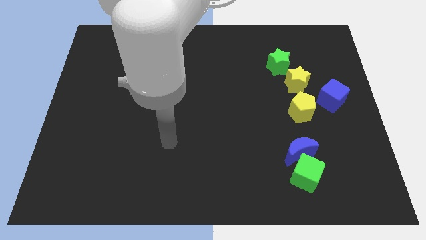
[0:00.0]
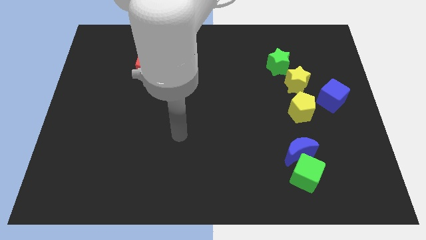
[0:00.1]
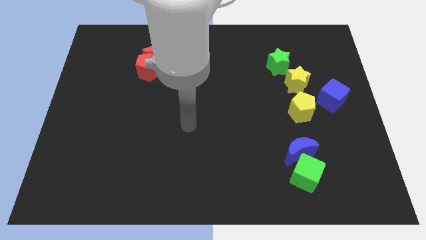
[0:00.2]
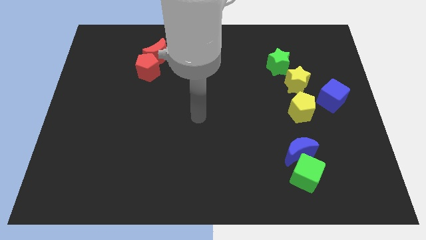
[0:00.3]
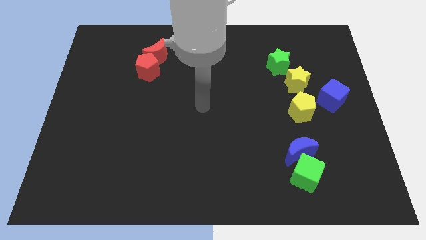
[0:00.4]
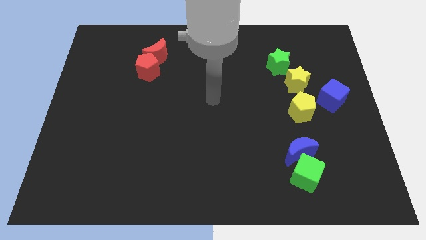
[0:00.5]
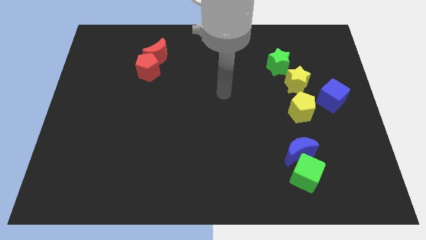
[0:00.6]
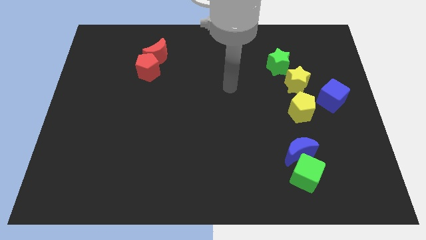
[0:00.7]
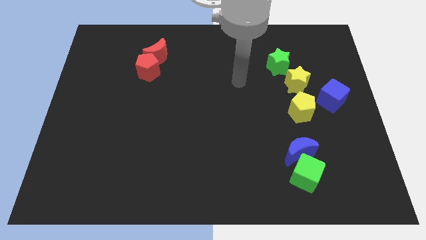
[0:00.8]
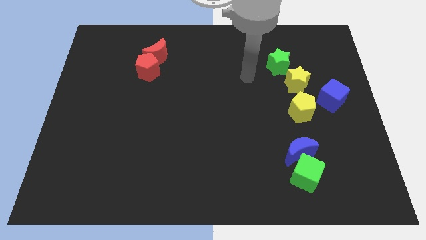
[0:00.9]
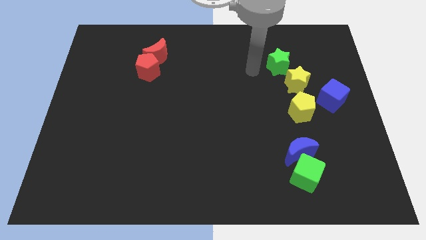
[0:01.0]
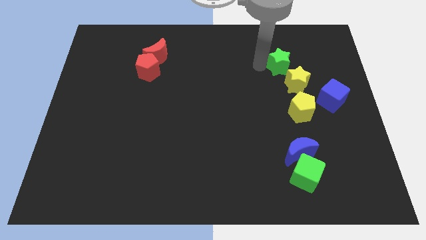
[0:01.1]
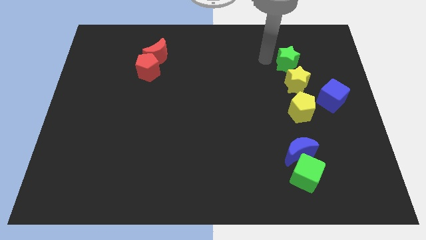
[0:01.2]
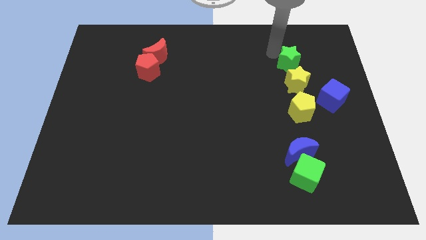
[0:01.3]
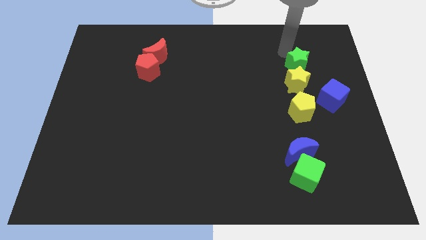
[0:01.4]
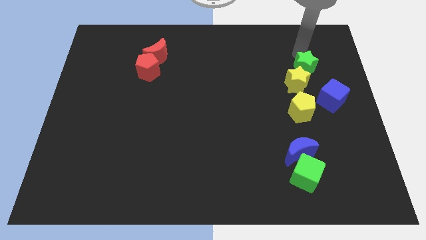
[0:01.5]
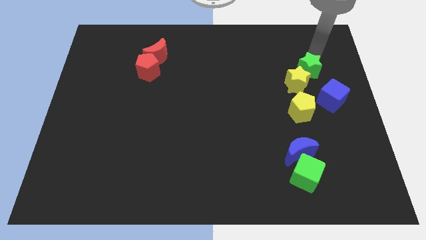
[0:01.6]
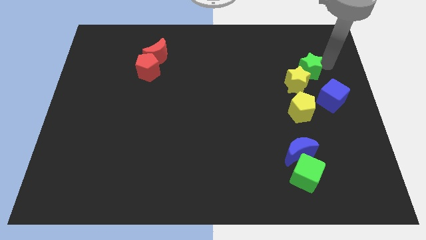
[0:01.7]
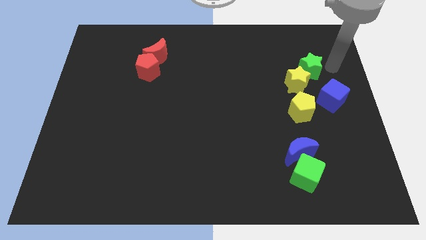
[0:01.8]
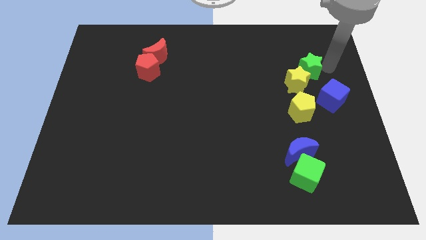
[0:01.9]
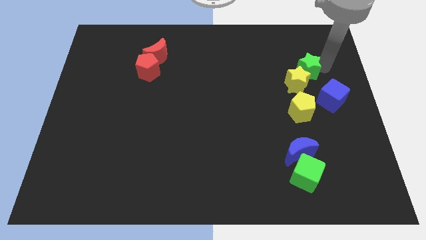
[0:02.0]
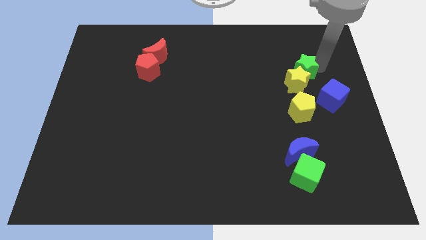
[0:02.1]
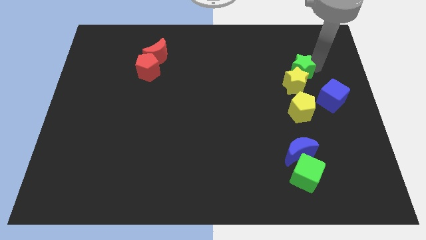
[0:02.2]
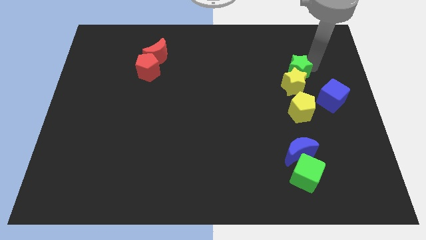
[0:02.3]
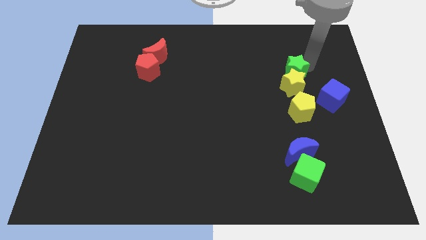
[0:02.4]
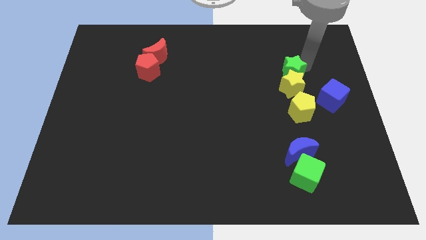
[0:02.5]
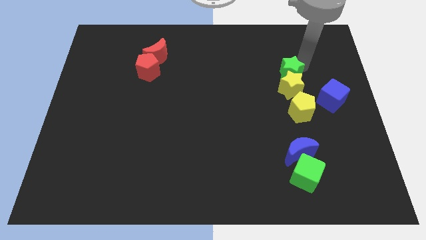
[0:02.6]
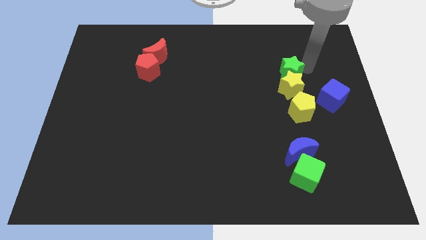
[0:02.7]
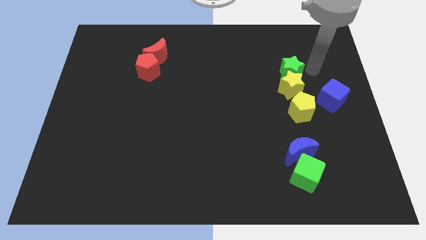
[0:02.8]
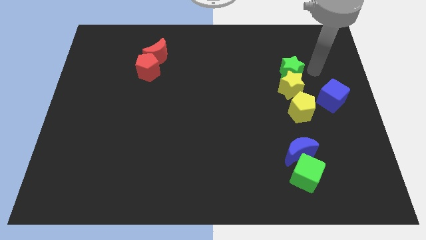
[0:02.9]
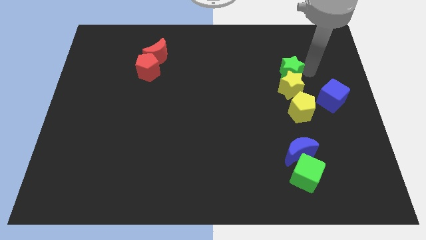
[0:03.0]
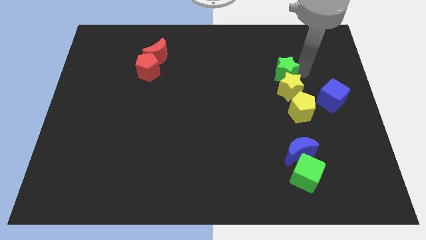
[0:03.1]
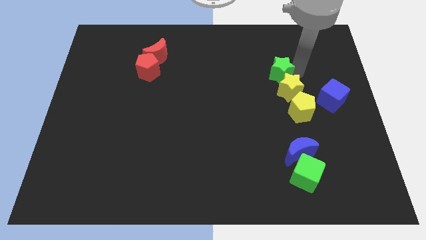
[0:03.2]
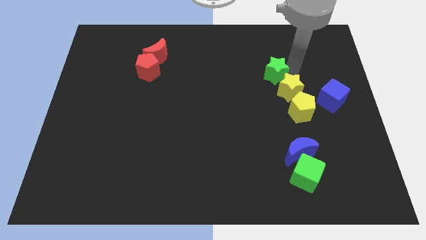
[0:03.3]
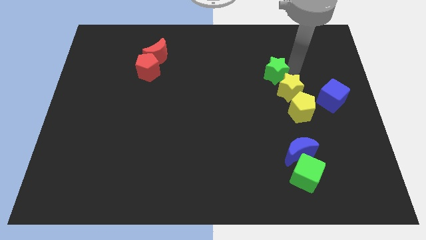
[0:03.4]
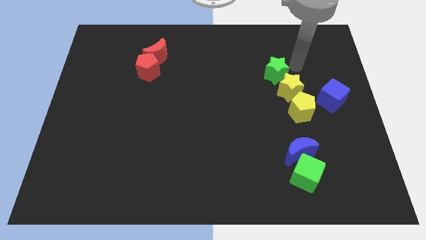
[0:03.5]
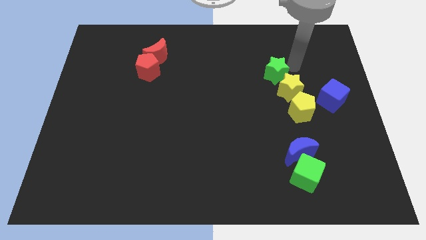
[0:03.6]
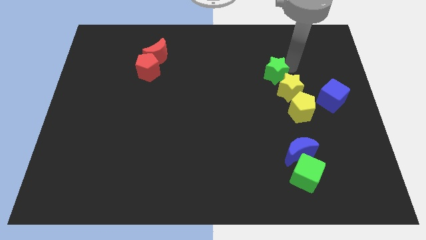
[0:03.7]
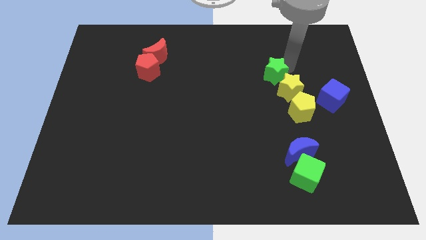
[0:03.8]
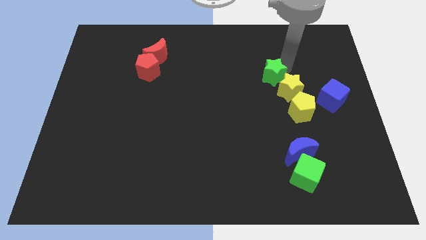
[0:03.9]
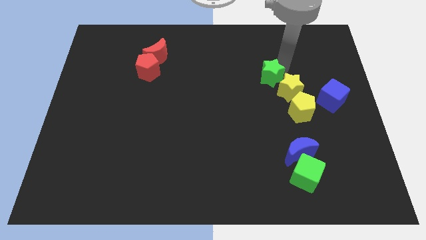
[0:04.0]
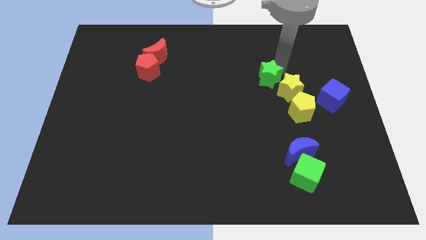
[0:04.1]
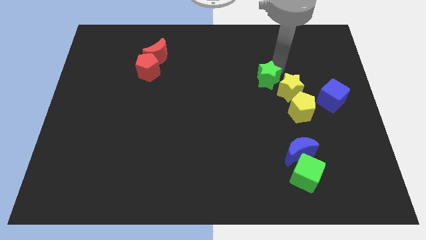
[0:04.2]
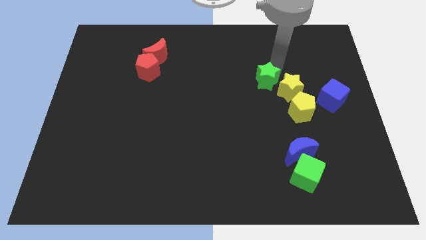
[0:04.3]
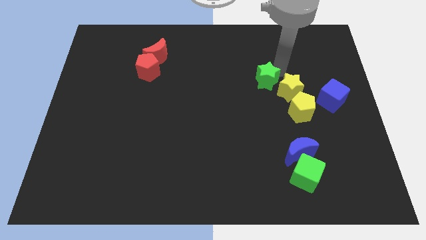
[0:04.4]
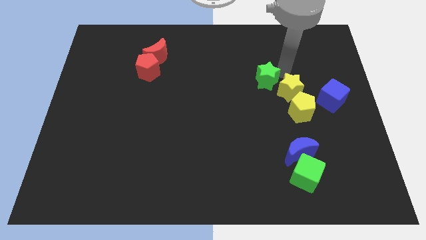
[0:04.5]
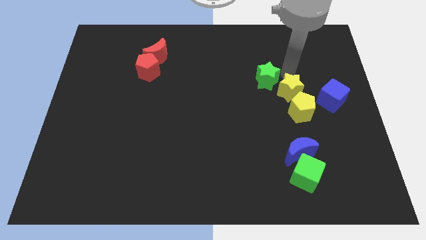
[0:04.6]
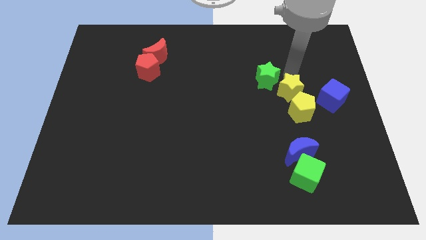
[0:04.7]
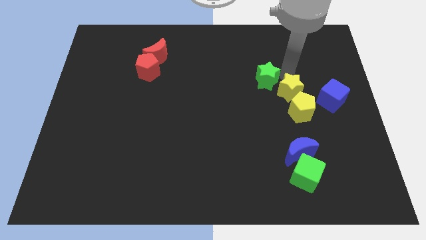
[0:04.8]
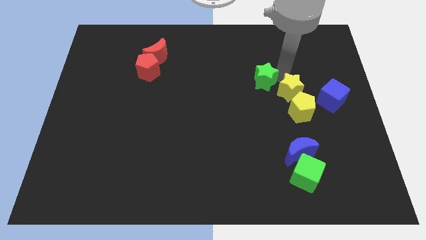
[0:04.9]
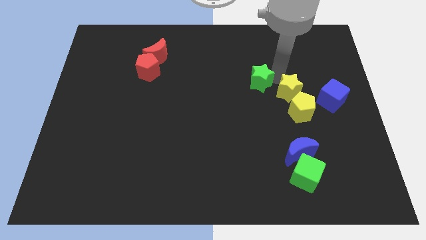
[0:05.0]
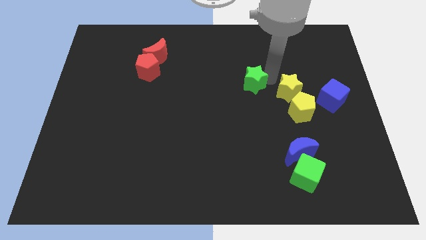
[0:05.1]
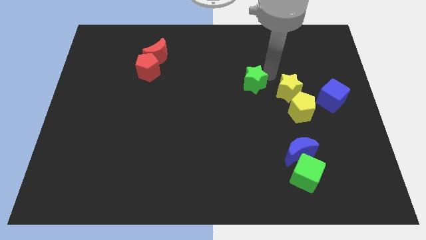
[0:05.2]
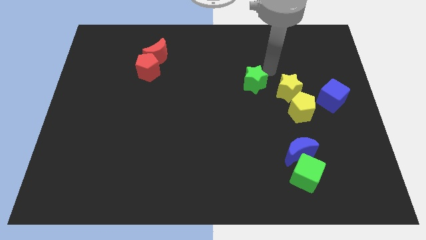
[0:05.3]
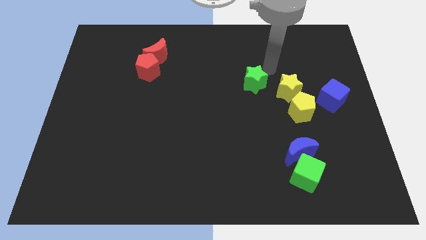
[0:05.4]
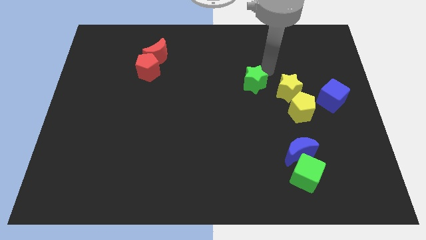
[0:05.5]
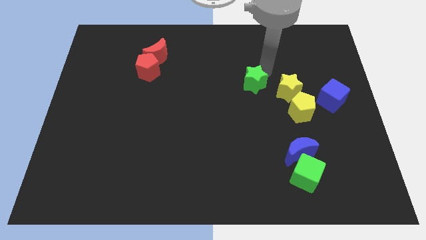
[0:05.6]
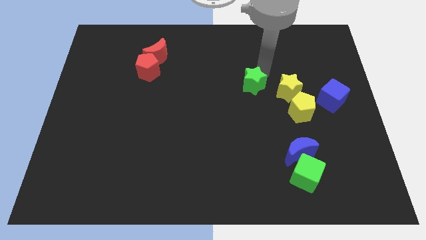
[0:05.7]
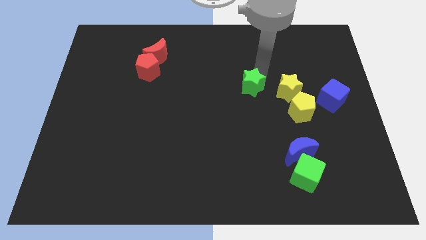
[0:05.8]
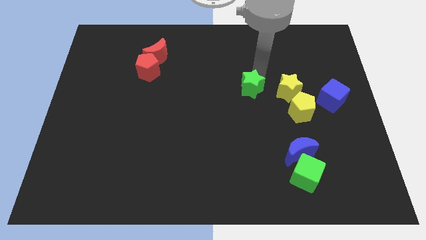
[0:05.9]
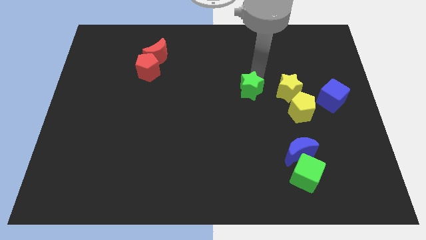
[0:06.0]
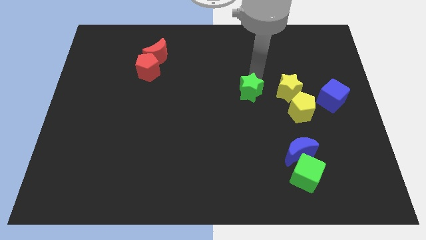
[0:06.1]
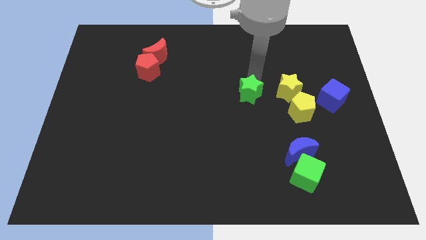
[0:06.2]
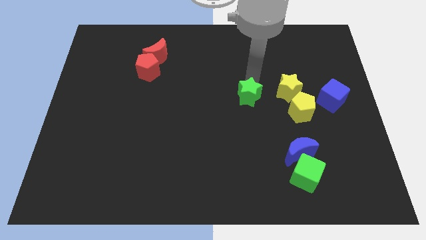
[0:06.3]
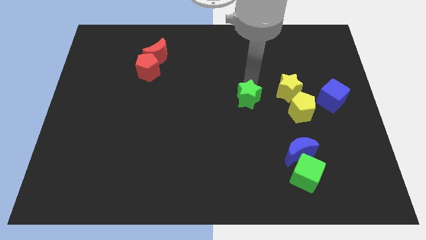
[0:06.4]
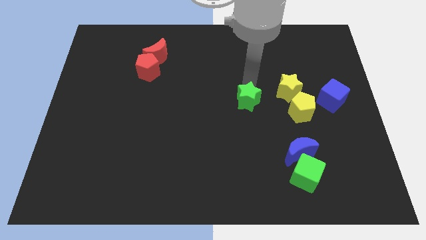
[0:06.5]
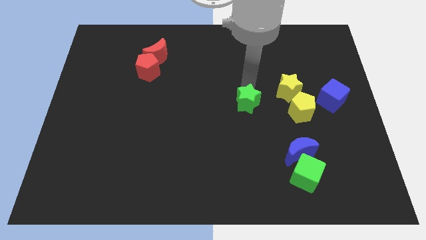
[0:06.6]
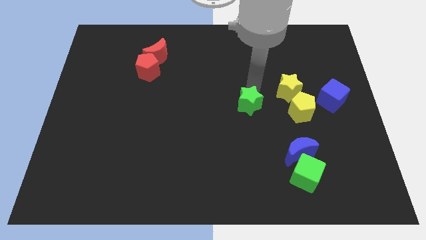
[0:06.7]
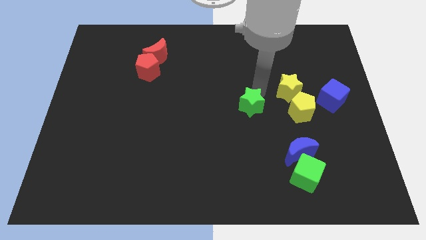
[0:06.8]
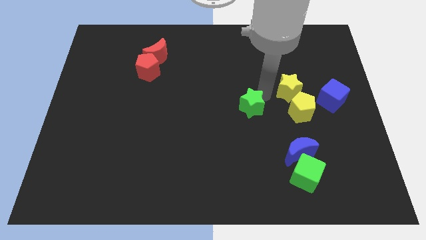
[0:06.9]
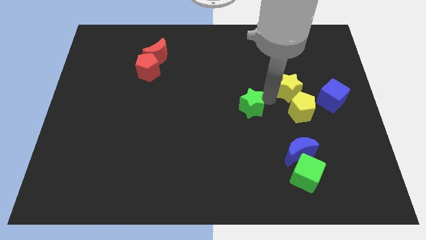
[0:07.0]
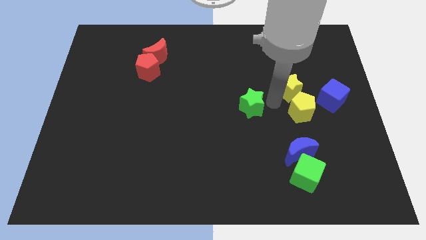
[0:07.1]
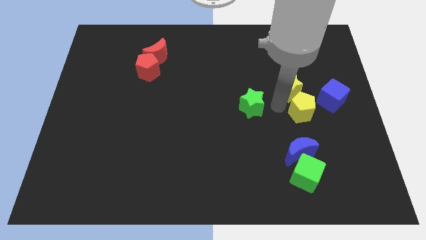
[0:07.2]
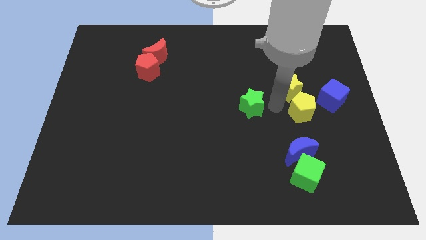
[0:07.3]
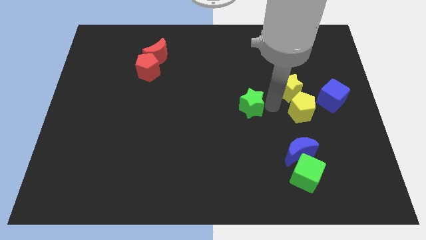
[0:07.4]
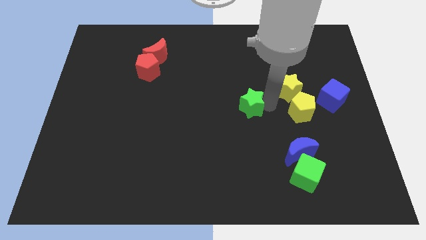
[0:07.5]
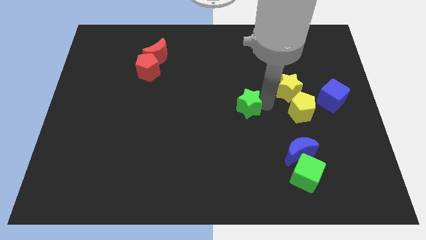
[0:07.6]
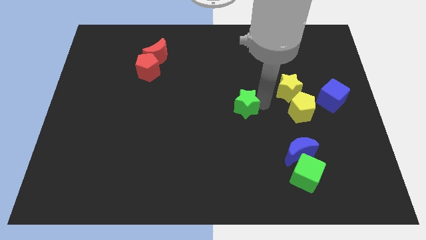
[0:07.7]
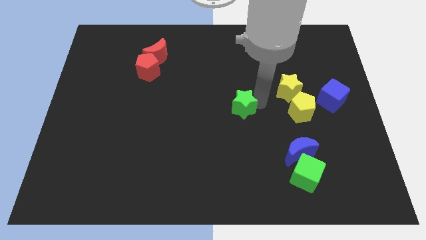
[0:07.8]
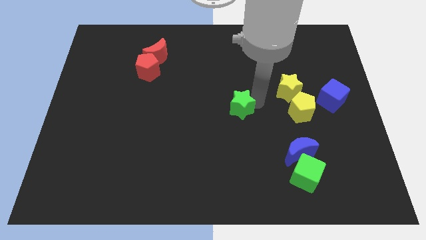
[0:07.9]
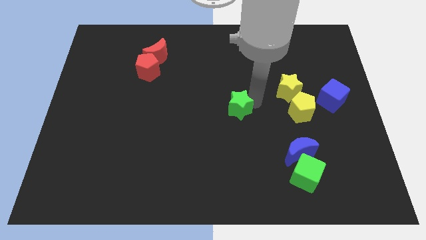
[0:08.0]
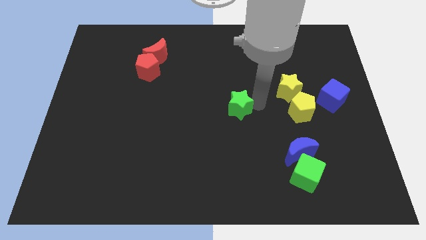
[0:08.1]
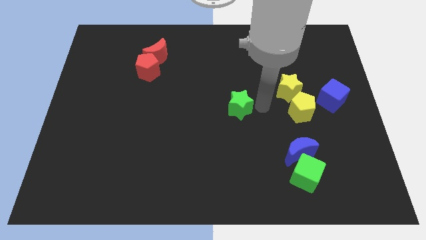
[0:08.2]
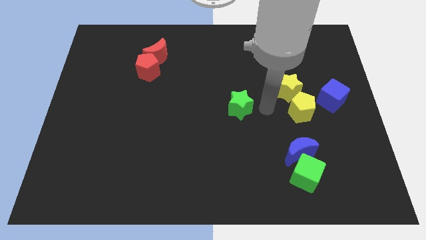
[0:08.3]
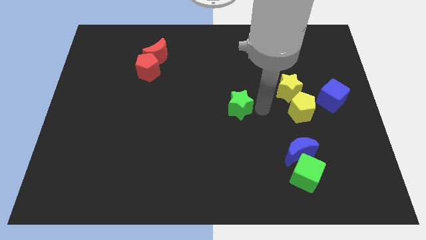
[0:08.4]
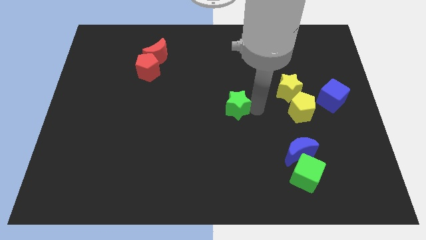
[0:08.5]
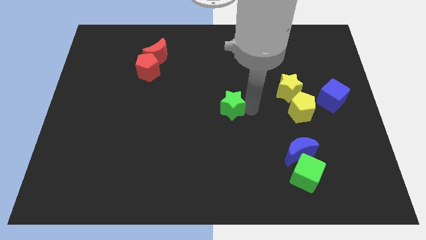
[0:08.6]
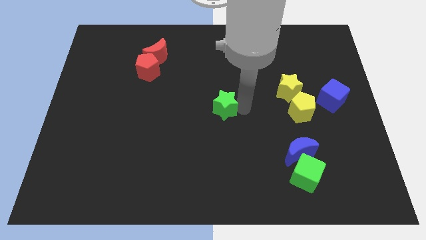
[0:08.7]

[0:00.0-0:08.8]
slide the green star downwards and to the left
